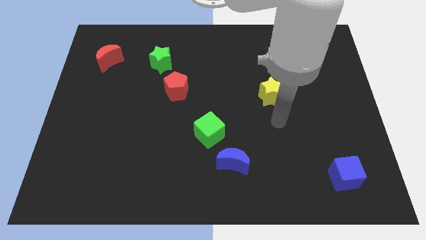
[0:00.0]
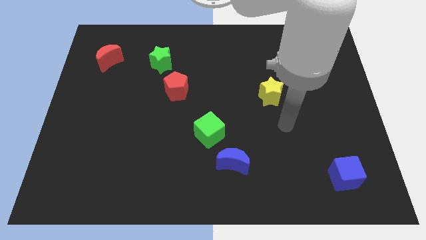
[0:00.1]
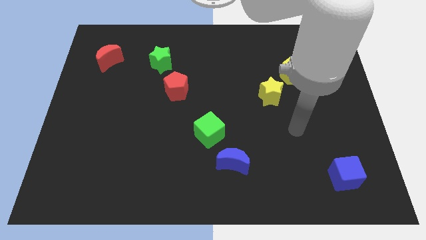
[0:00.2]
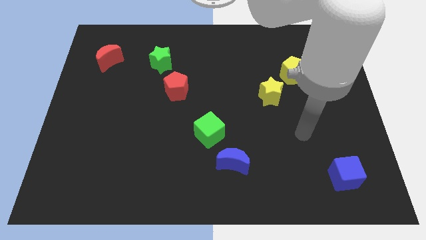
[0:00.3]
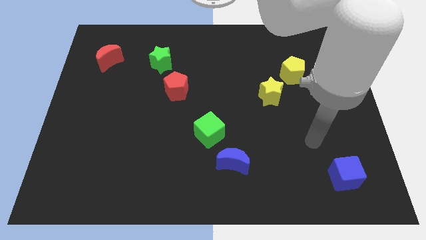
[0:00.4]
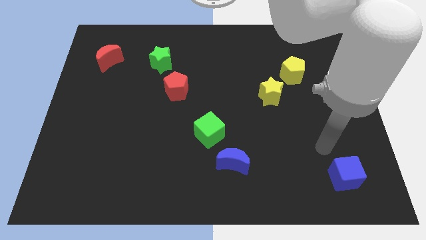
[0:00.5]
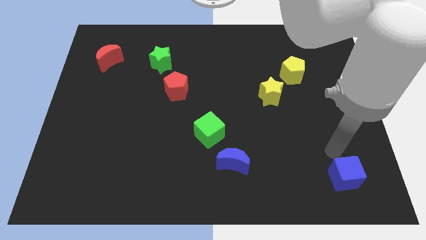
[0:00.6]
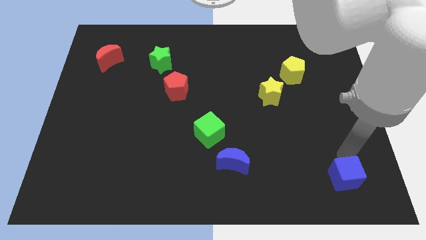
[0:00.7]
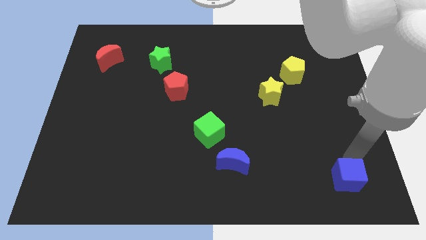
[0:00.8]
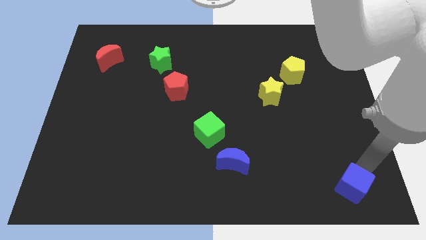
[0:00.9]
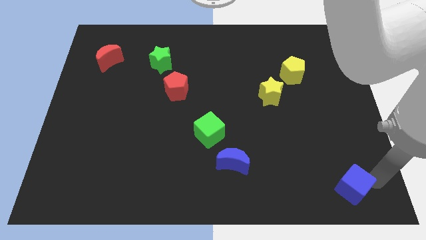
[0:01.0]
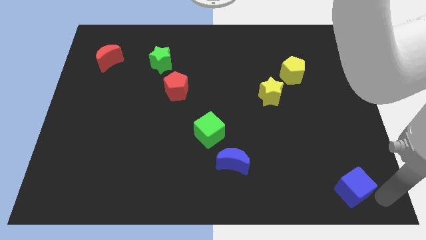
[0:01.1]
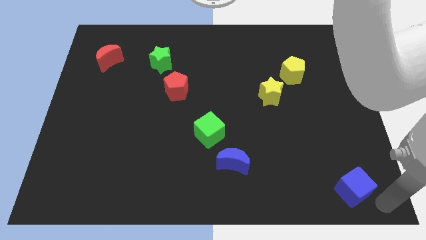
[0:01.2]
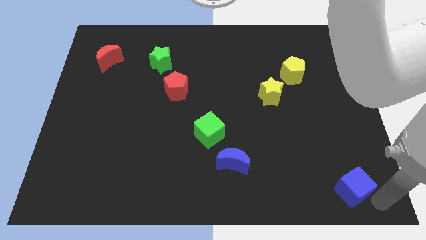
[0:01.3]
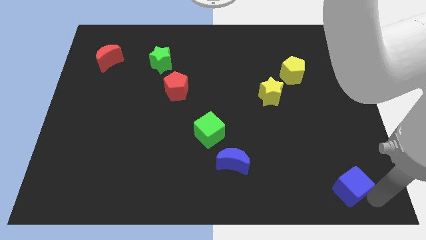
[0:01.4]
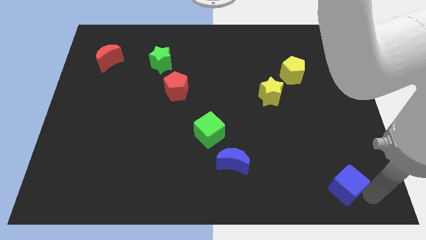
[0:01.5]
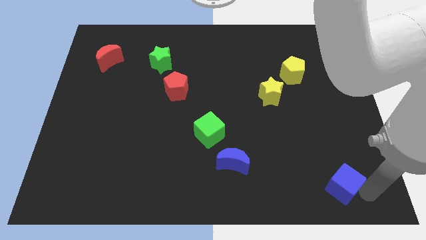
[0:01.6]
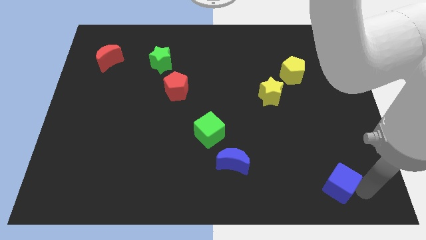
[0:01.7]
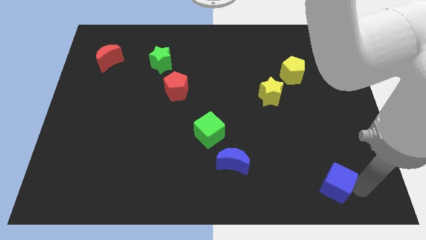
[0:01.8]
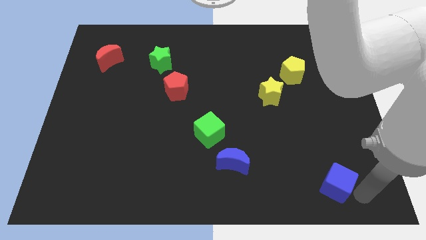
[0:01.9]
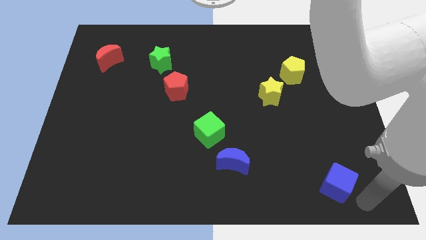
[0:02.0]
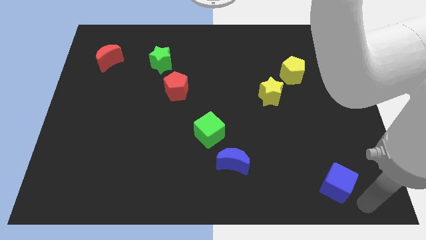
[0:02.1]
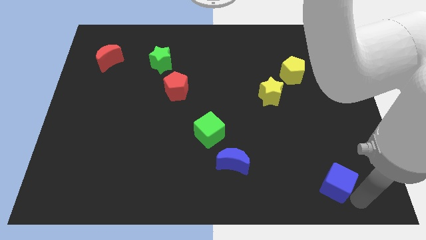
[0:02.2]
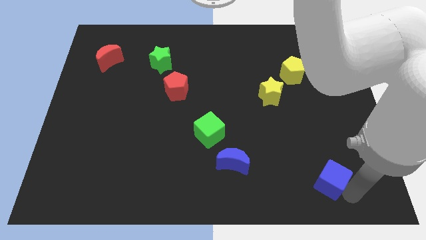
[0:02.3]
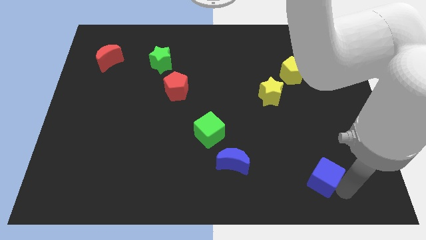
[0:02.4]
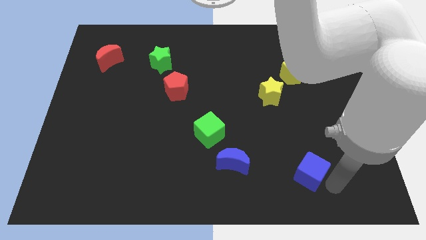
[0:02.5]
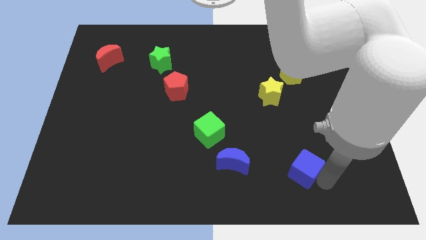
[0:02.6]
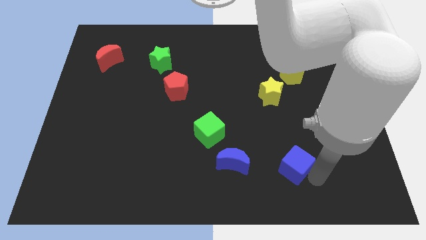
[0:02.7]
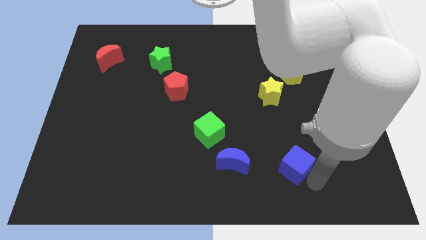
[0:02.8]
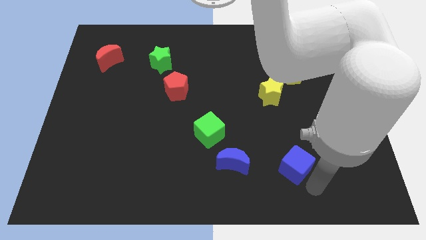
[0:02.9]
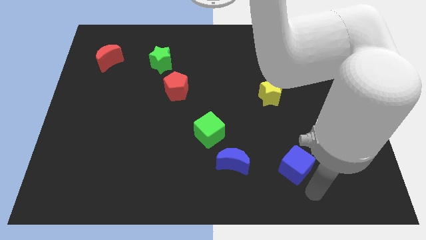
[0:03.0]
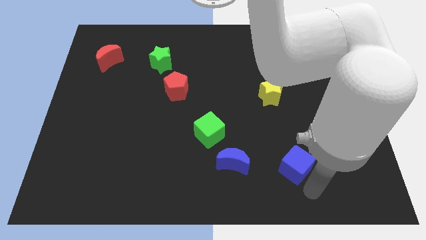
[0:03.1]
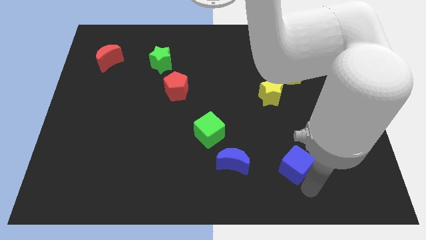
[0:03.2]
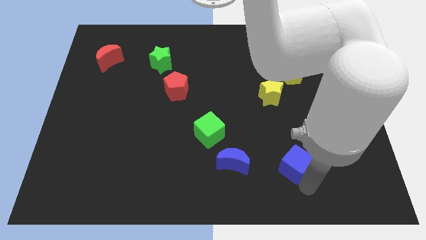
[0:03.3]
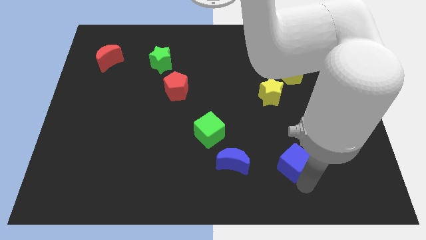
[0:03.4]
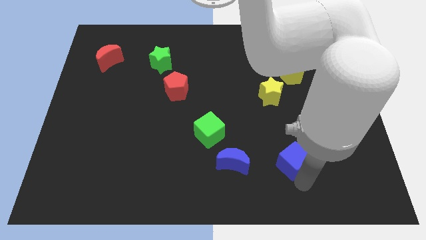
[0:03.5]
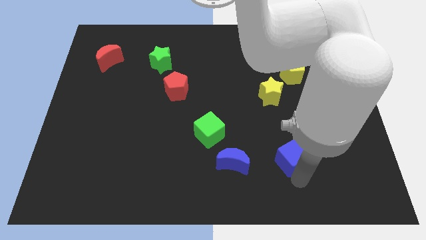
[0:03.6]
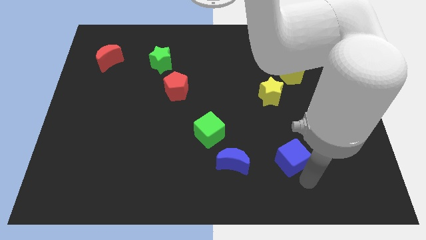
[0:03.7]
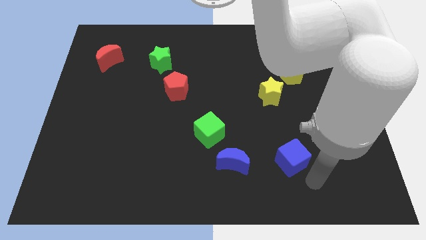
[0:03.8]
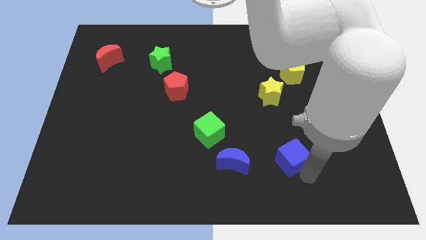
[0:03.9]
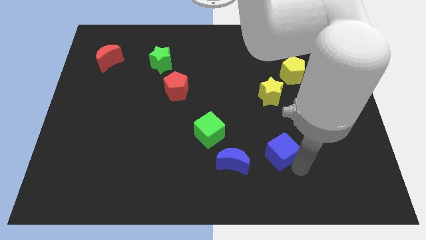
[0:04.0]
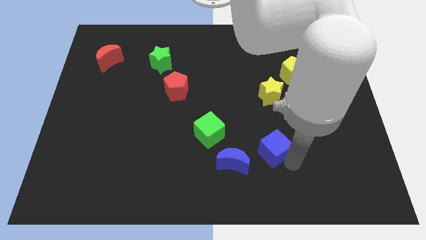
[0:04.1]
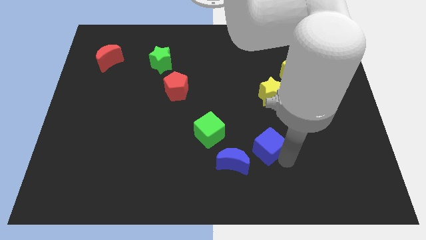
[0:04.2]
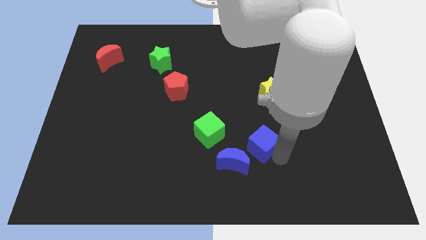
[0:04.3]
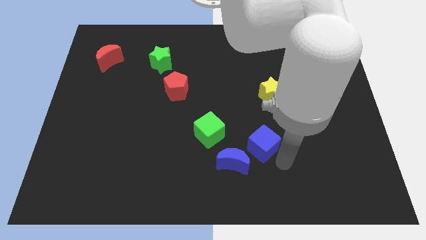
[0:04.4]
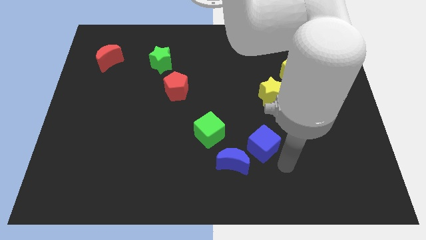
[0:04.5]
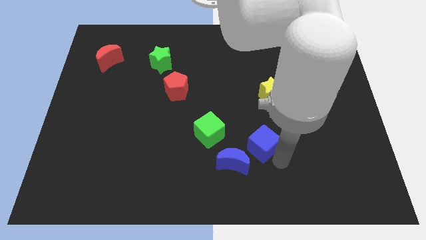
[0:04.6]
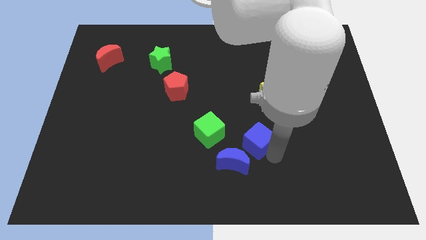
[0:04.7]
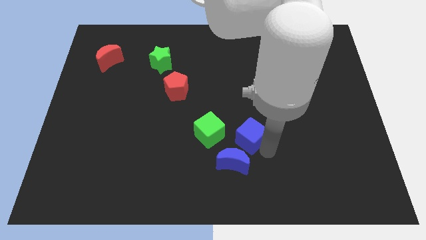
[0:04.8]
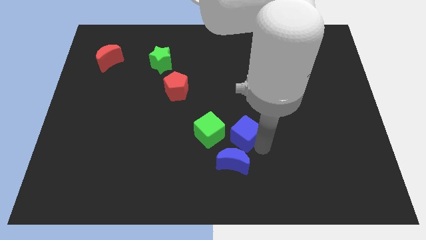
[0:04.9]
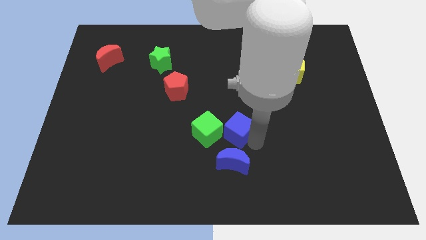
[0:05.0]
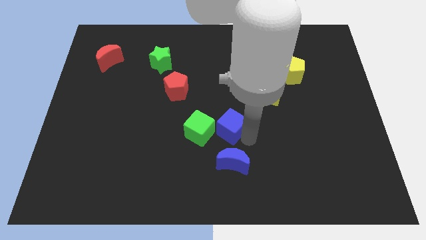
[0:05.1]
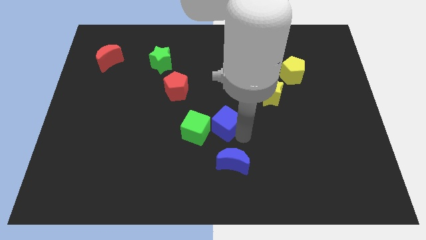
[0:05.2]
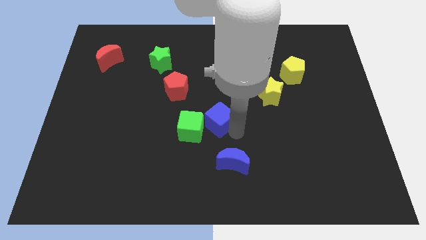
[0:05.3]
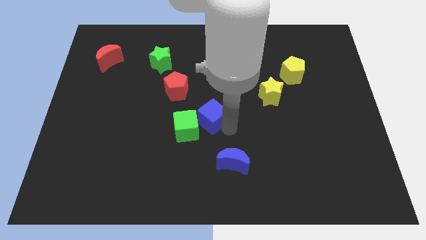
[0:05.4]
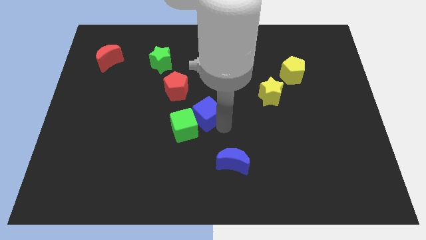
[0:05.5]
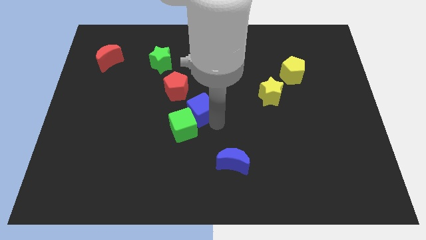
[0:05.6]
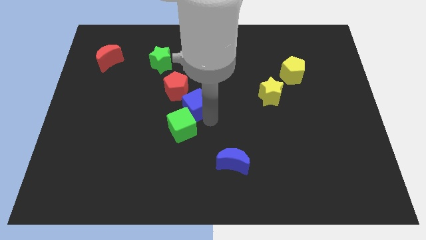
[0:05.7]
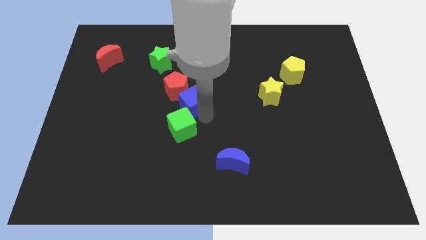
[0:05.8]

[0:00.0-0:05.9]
move the blue cube close to the red pentagon

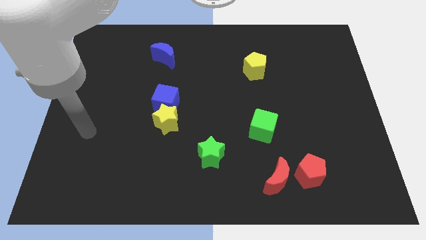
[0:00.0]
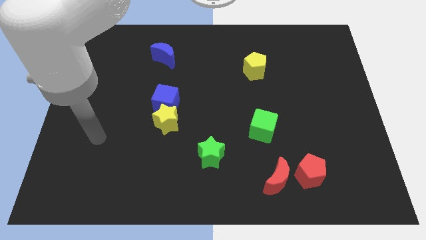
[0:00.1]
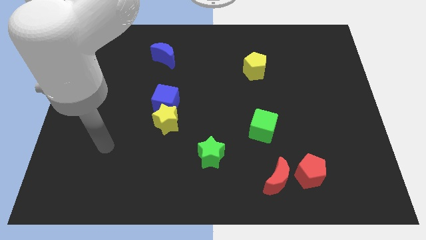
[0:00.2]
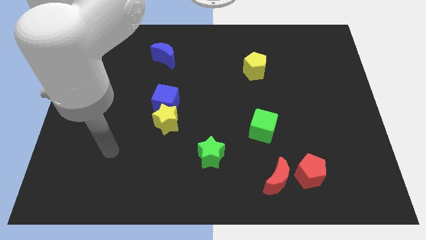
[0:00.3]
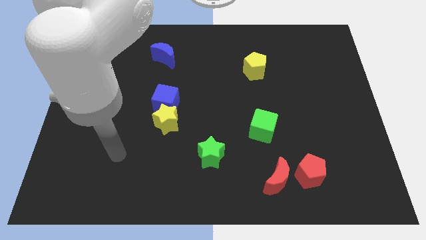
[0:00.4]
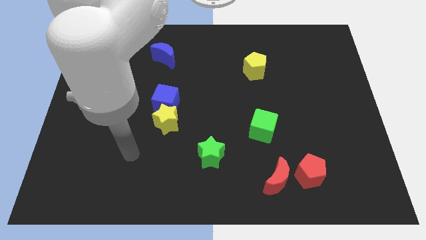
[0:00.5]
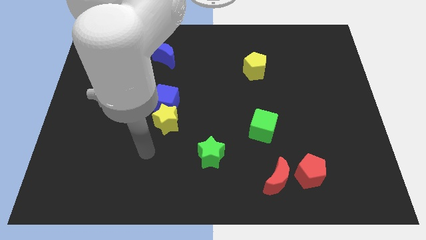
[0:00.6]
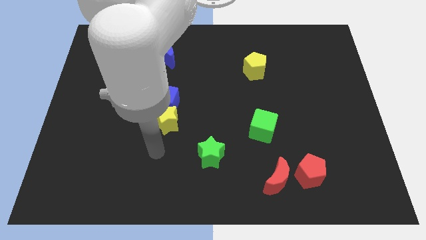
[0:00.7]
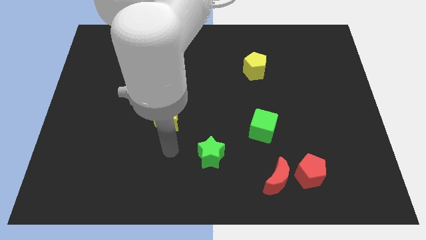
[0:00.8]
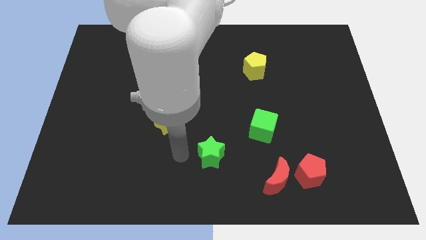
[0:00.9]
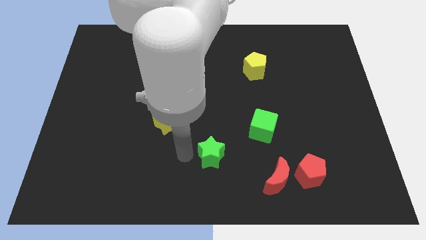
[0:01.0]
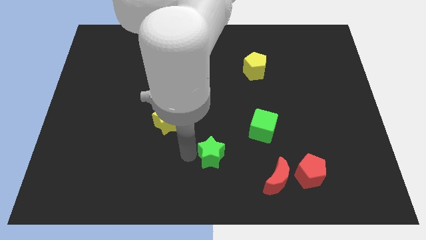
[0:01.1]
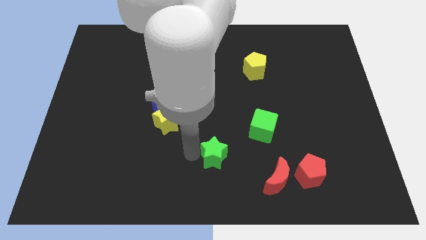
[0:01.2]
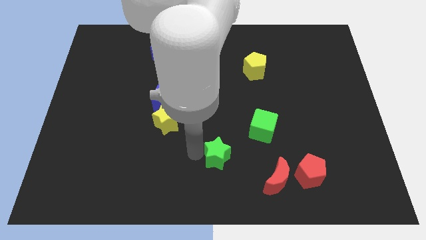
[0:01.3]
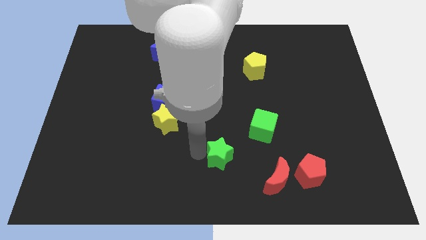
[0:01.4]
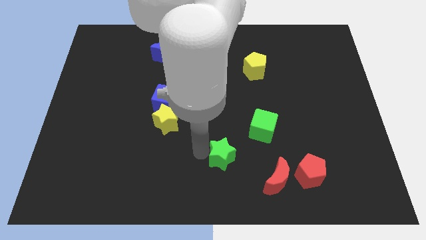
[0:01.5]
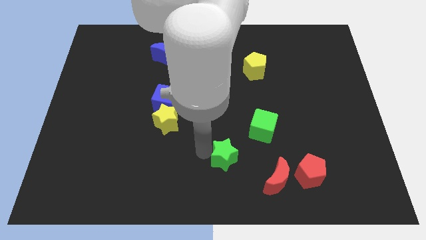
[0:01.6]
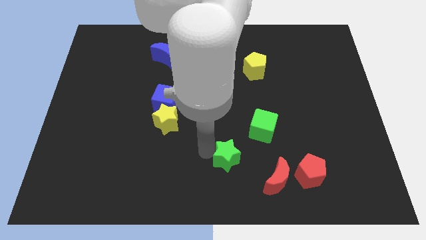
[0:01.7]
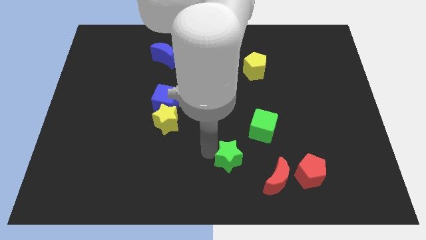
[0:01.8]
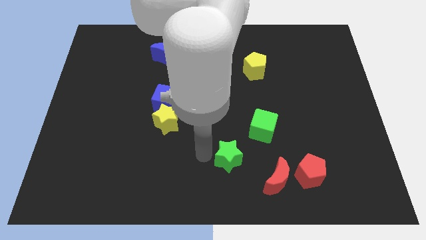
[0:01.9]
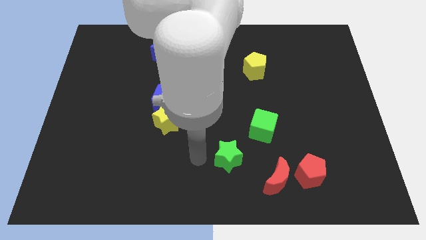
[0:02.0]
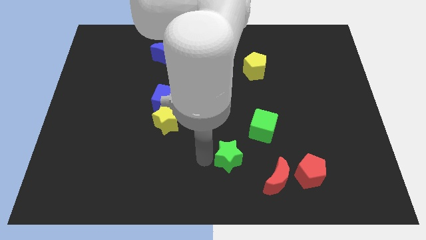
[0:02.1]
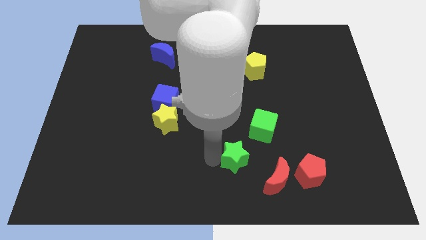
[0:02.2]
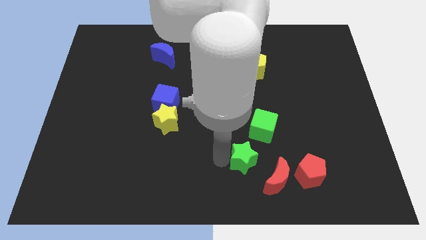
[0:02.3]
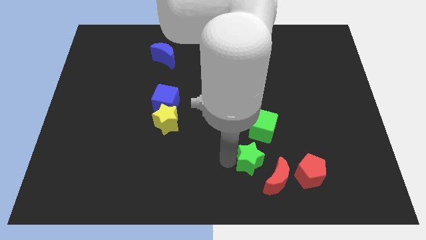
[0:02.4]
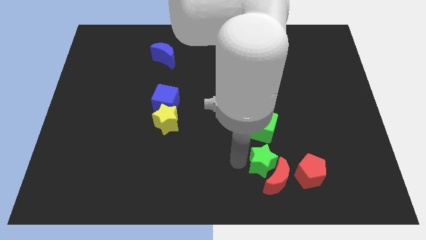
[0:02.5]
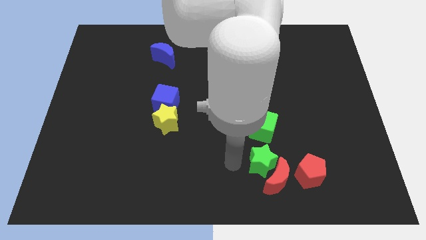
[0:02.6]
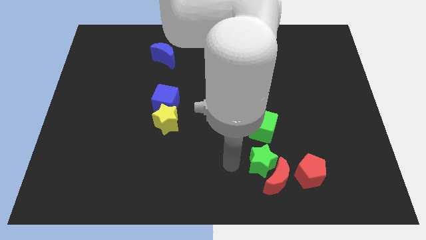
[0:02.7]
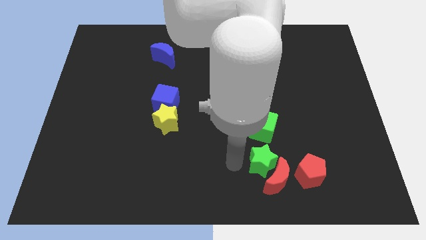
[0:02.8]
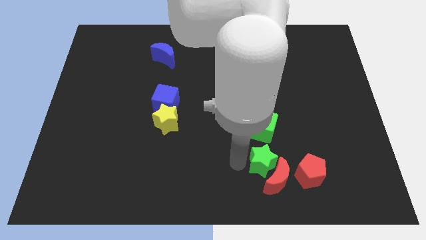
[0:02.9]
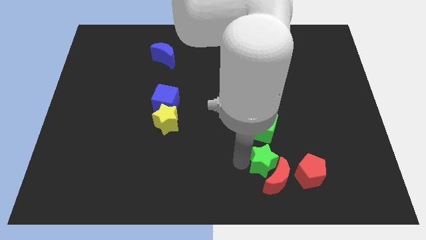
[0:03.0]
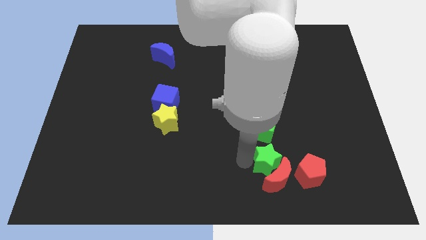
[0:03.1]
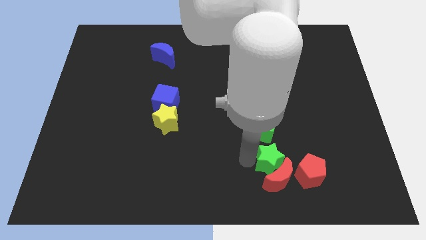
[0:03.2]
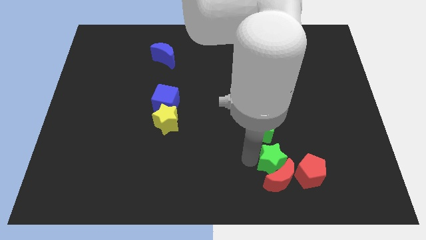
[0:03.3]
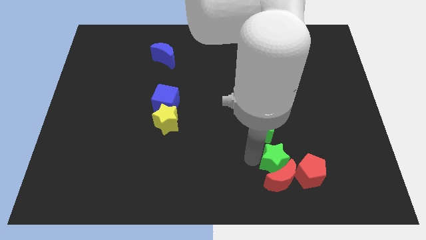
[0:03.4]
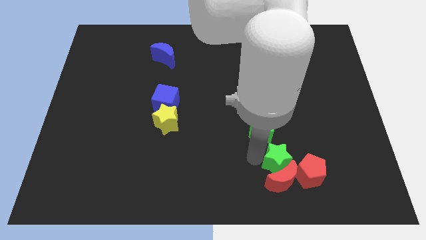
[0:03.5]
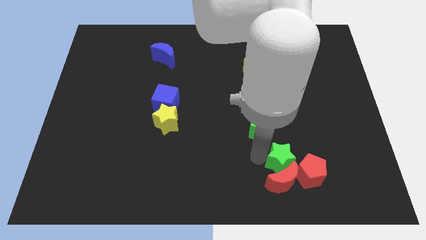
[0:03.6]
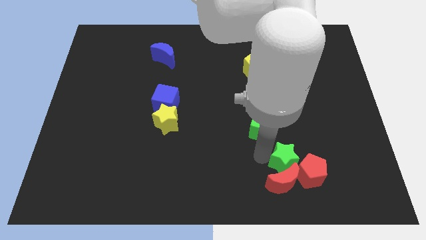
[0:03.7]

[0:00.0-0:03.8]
push the green star next to the red pentagon
